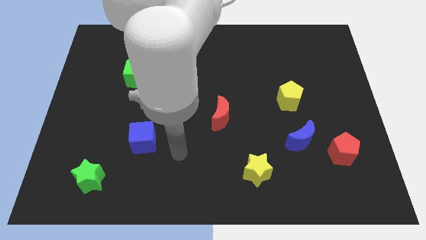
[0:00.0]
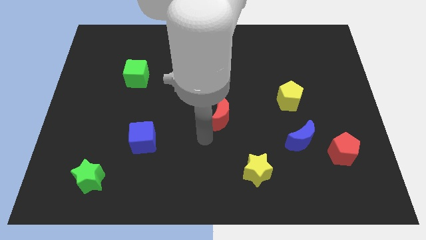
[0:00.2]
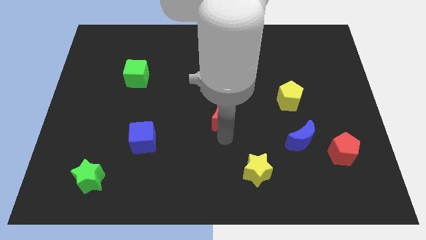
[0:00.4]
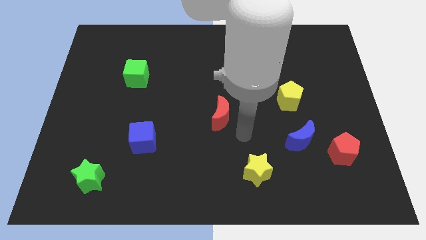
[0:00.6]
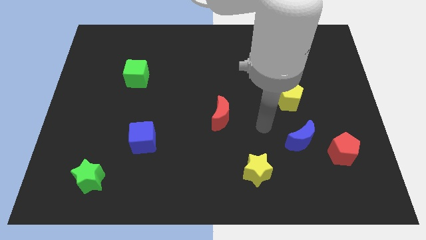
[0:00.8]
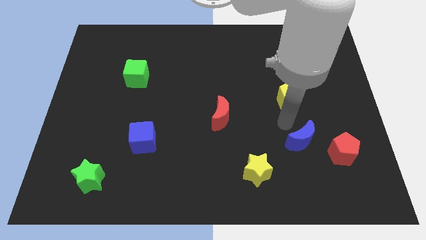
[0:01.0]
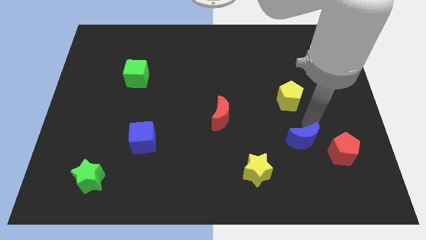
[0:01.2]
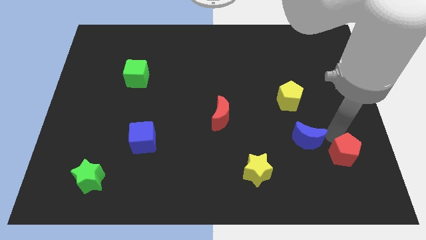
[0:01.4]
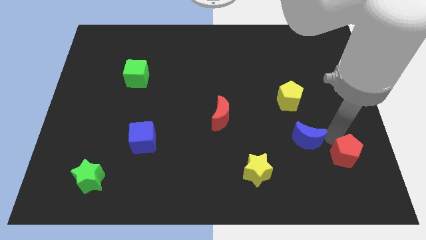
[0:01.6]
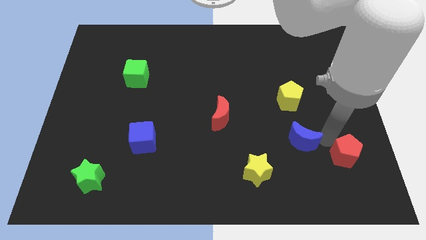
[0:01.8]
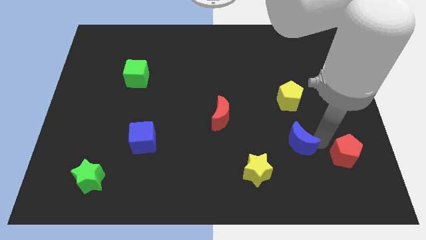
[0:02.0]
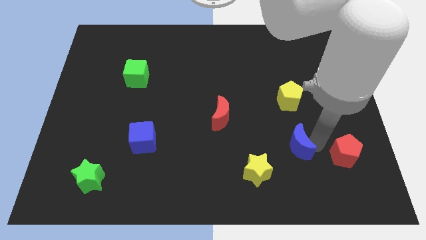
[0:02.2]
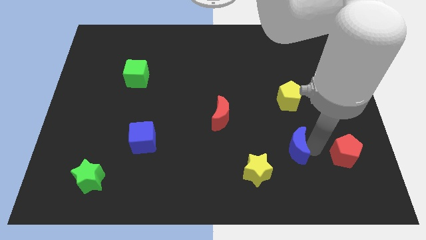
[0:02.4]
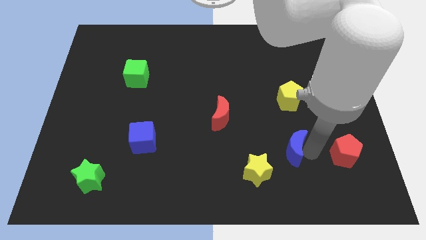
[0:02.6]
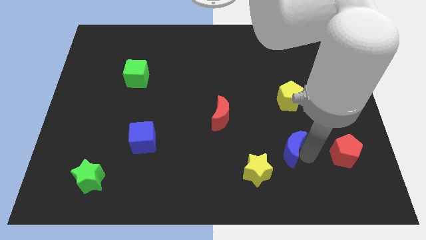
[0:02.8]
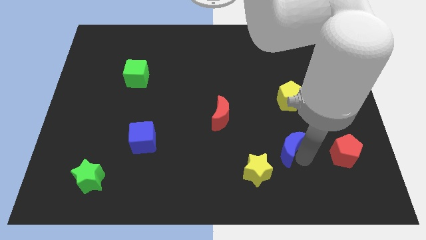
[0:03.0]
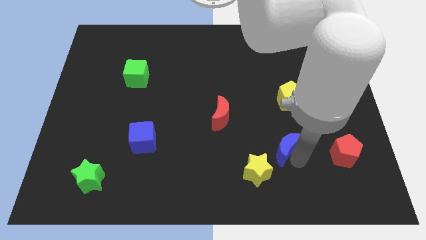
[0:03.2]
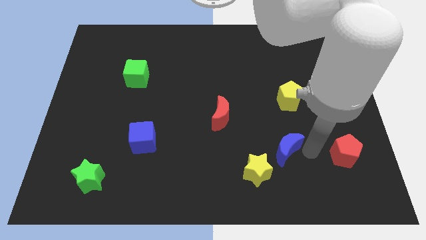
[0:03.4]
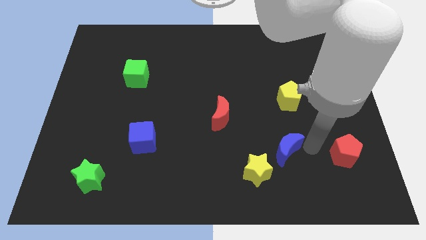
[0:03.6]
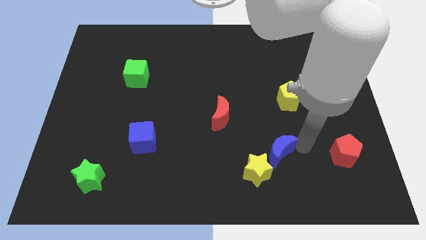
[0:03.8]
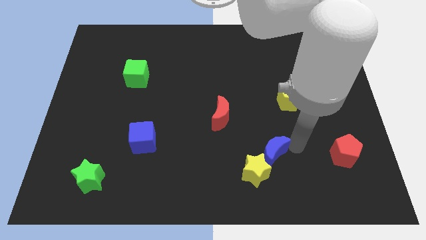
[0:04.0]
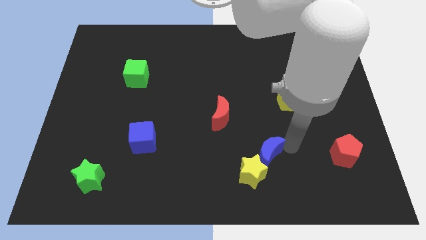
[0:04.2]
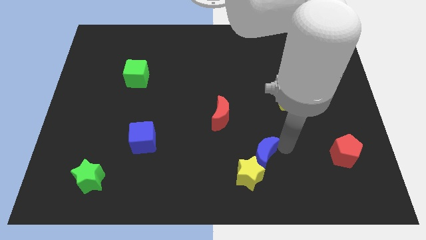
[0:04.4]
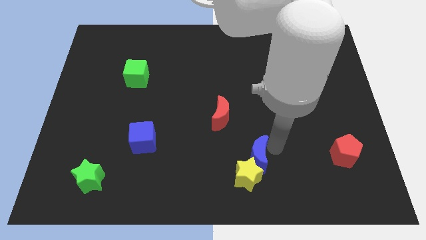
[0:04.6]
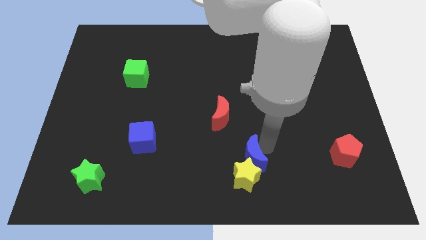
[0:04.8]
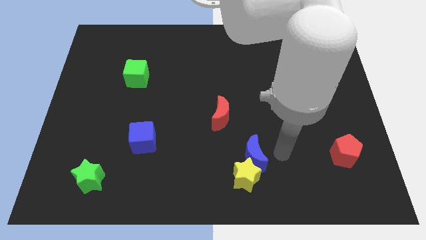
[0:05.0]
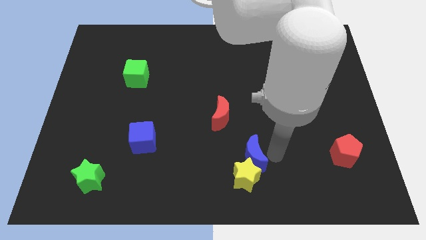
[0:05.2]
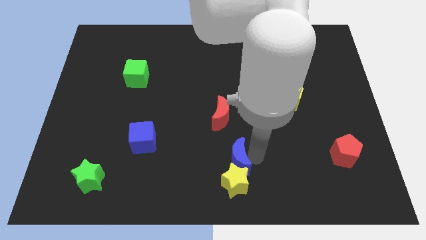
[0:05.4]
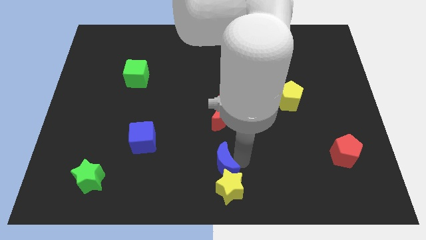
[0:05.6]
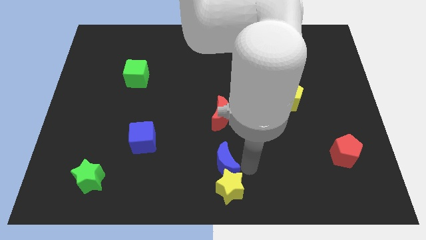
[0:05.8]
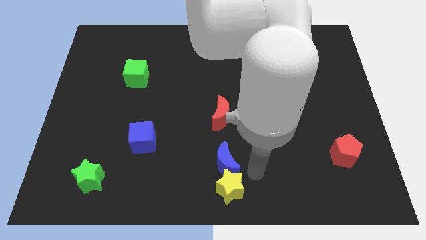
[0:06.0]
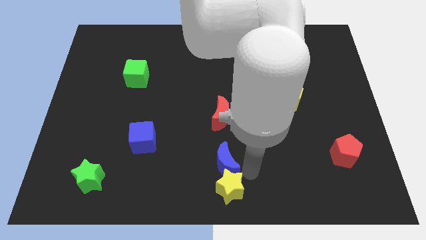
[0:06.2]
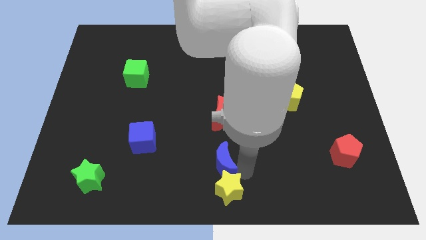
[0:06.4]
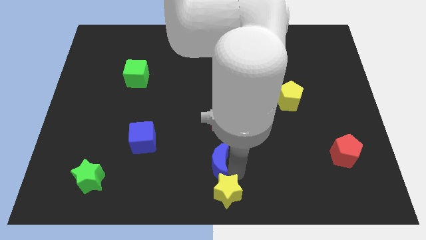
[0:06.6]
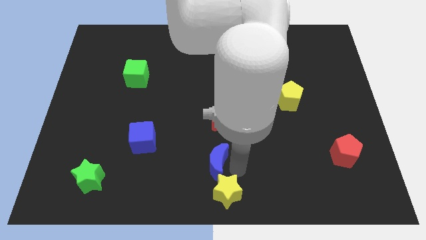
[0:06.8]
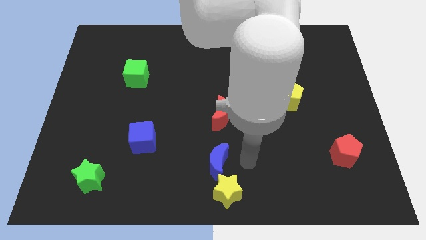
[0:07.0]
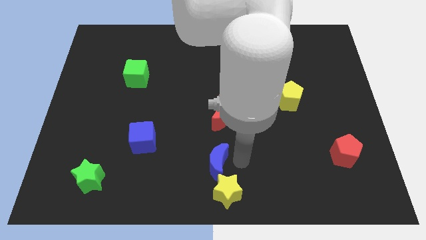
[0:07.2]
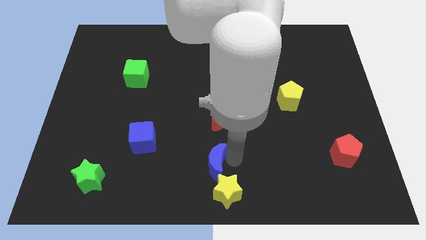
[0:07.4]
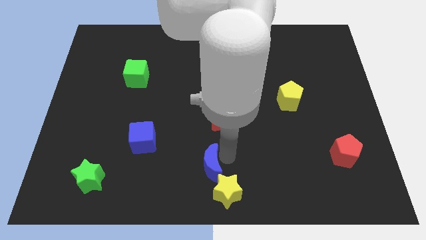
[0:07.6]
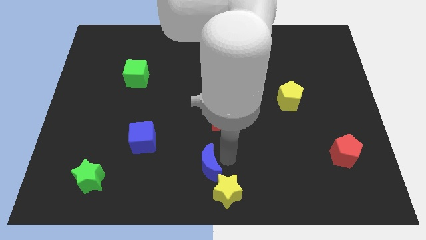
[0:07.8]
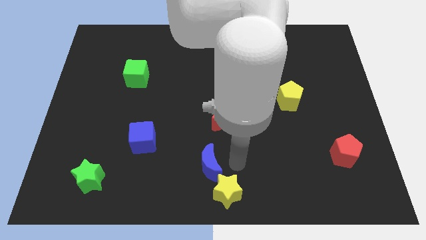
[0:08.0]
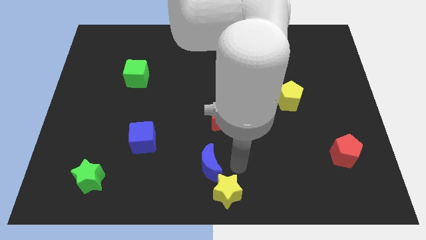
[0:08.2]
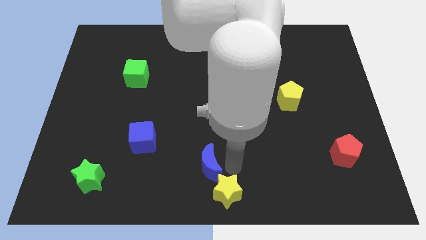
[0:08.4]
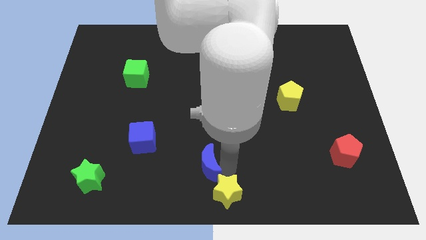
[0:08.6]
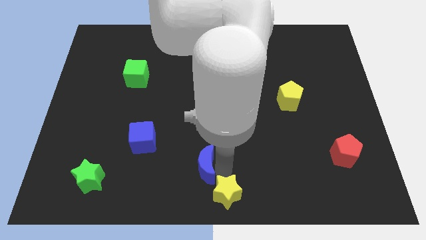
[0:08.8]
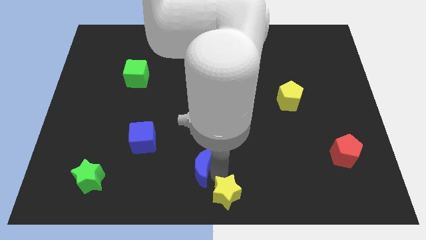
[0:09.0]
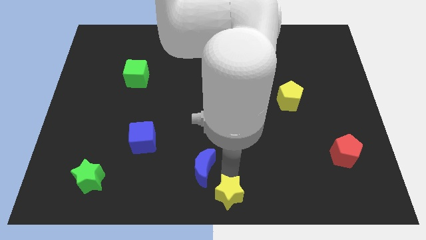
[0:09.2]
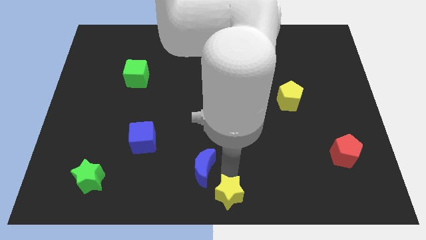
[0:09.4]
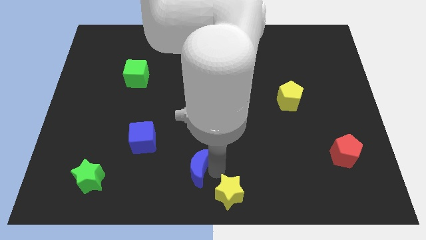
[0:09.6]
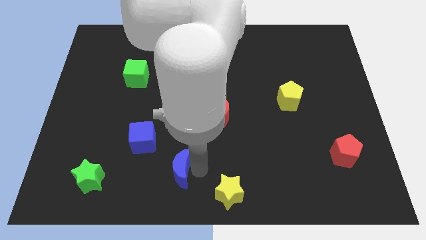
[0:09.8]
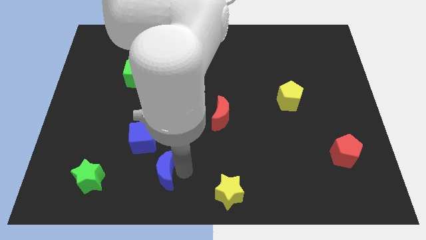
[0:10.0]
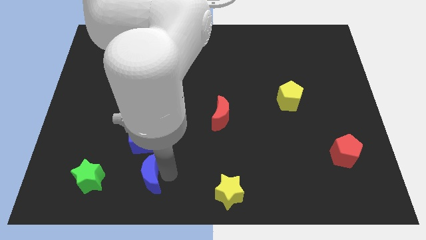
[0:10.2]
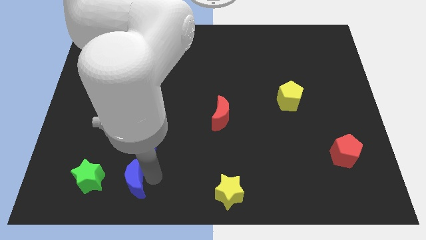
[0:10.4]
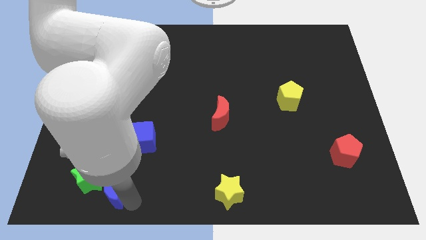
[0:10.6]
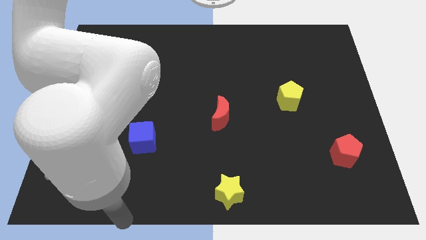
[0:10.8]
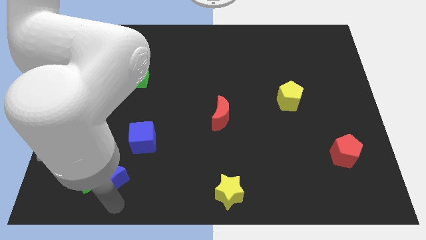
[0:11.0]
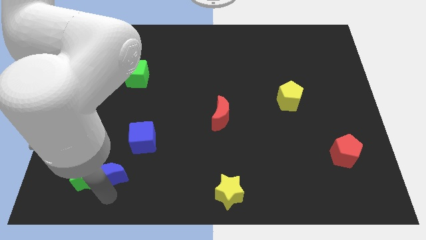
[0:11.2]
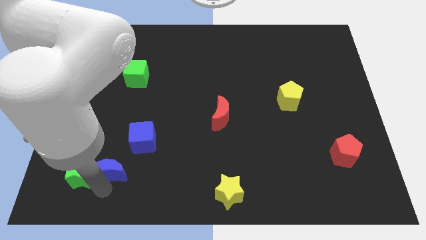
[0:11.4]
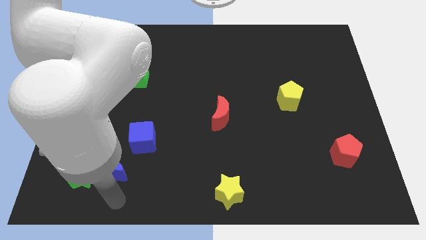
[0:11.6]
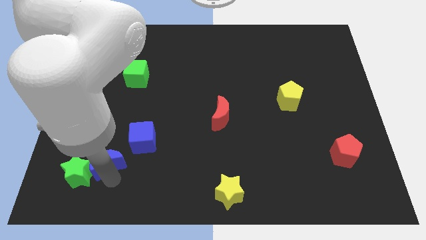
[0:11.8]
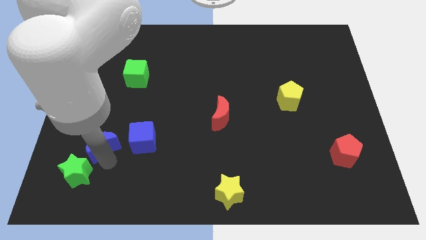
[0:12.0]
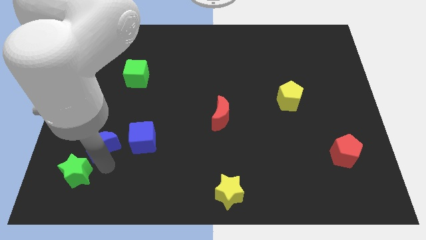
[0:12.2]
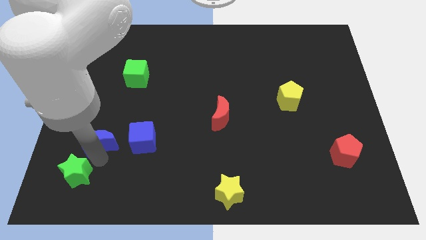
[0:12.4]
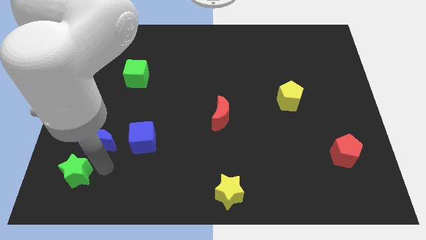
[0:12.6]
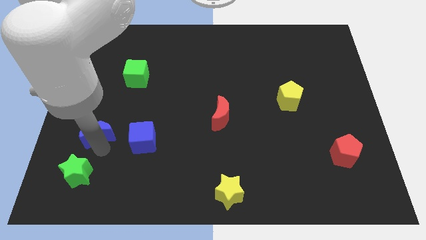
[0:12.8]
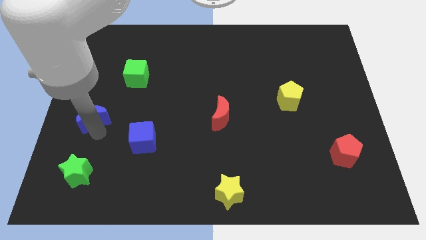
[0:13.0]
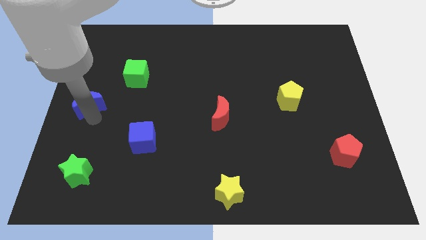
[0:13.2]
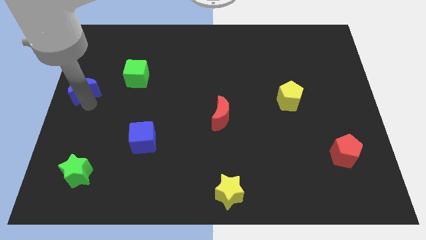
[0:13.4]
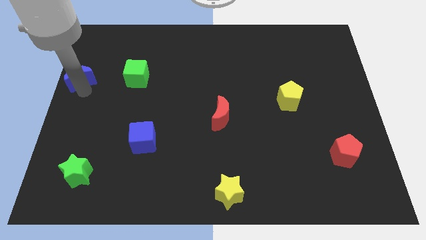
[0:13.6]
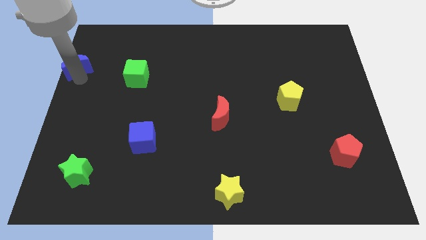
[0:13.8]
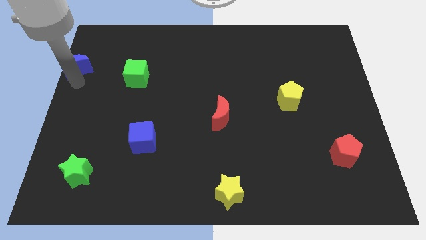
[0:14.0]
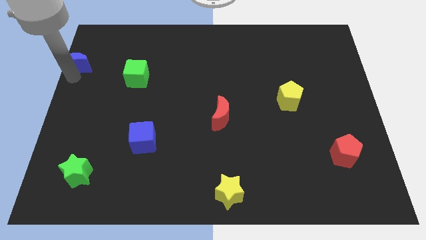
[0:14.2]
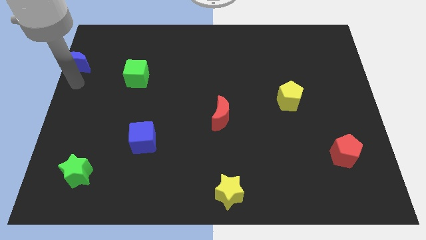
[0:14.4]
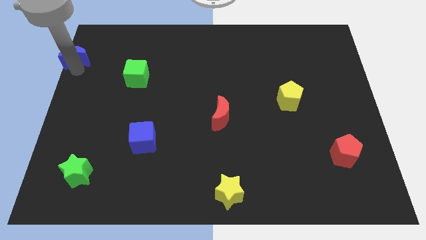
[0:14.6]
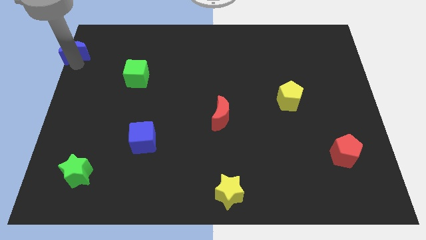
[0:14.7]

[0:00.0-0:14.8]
push the blue moon to the top left of the board
